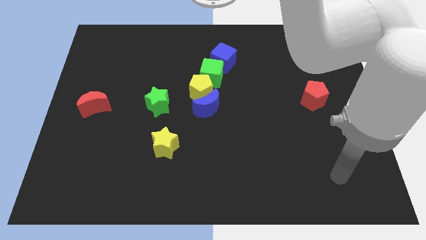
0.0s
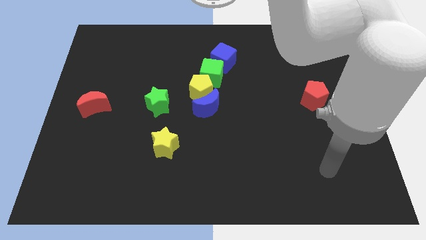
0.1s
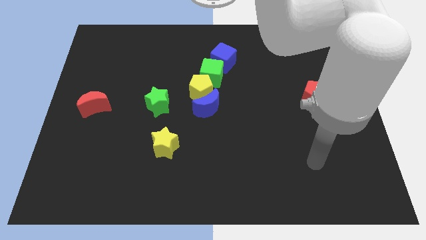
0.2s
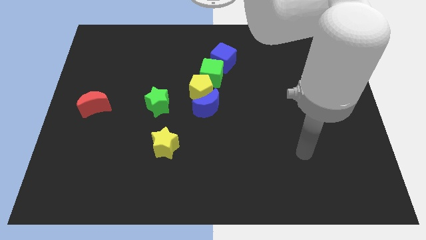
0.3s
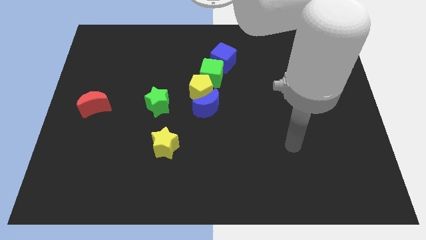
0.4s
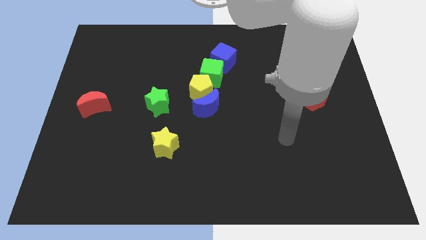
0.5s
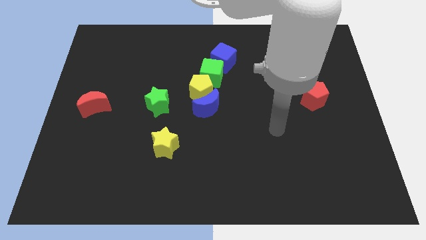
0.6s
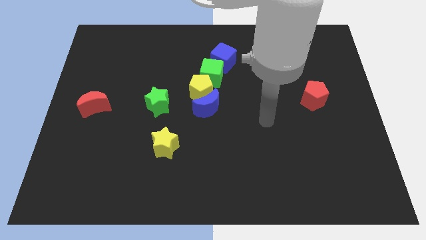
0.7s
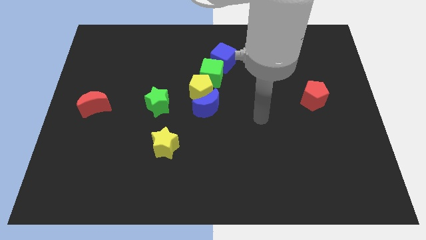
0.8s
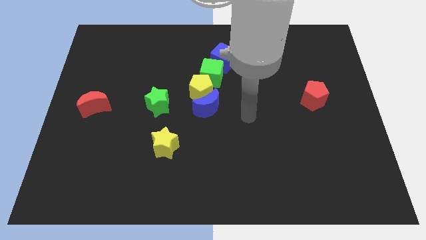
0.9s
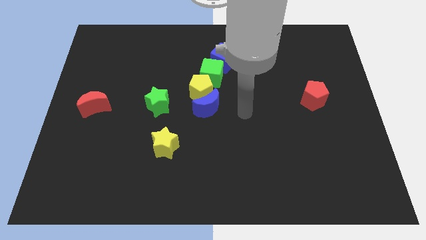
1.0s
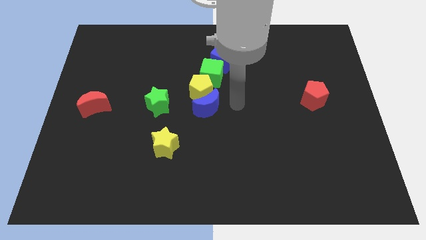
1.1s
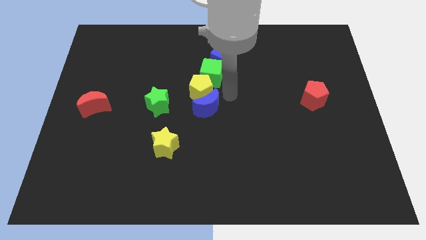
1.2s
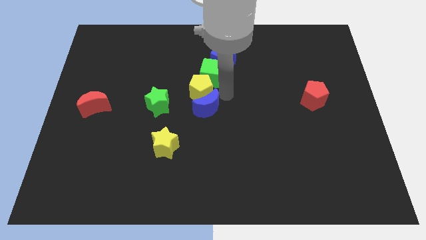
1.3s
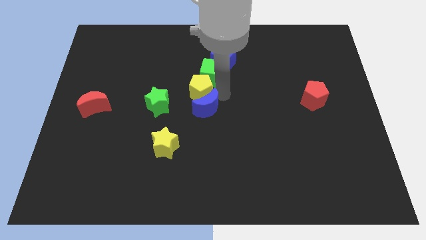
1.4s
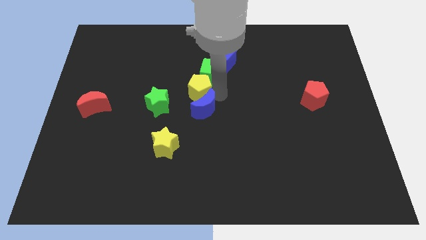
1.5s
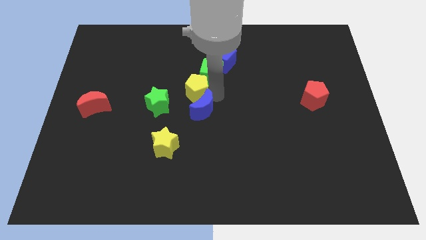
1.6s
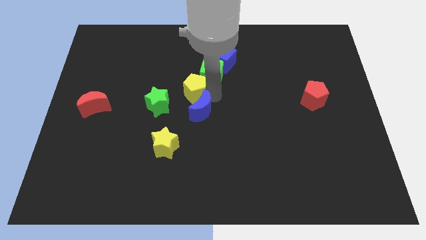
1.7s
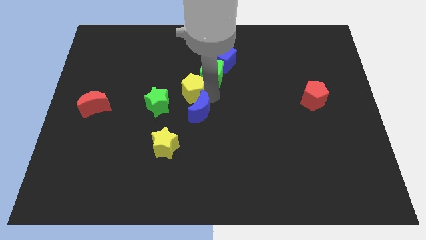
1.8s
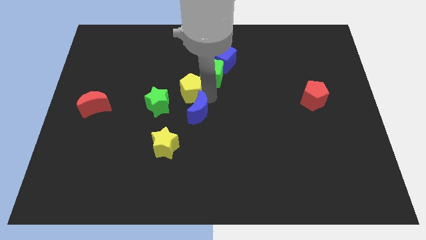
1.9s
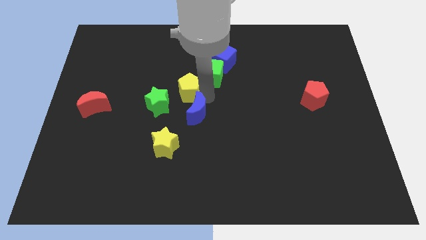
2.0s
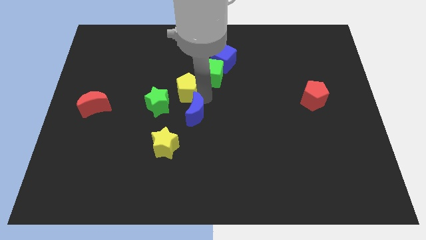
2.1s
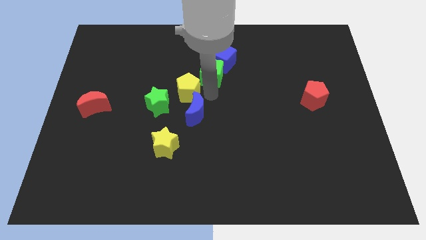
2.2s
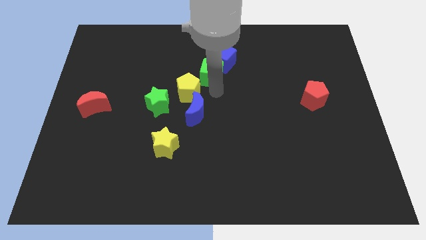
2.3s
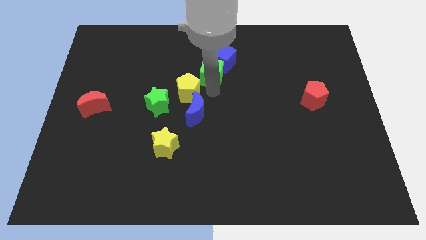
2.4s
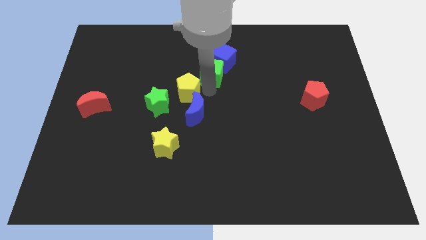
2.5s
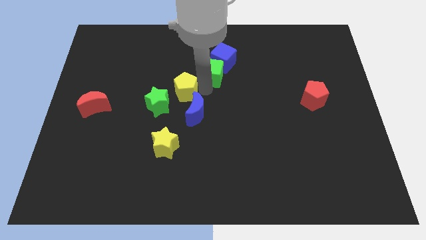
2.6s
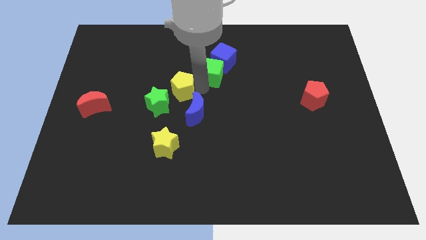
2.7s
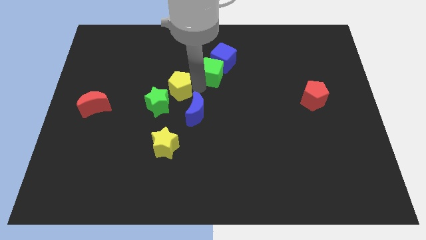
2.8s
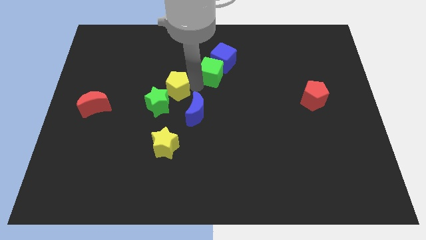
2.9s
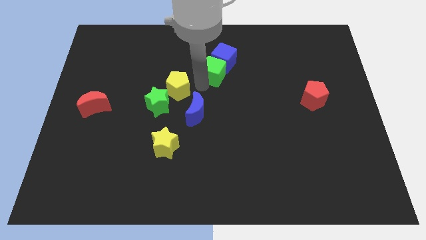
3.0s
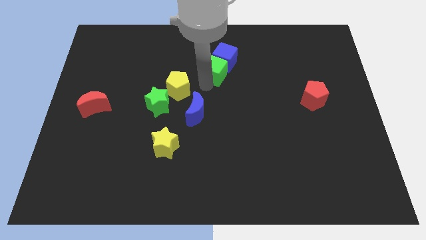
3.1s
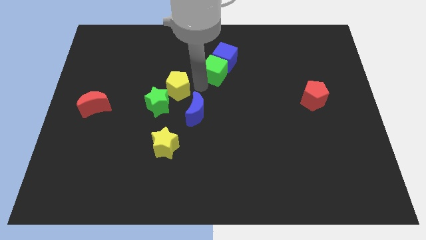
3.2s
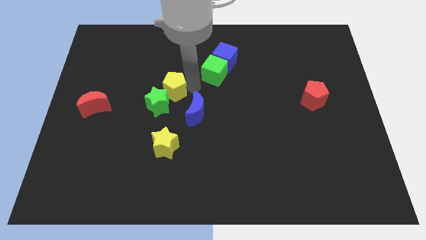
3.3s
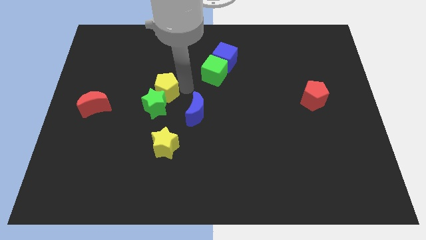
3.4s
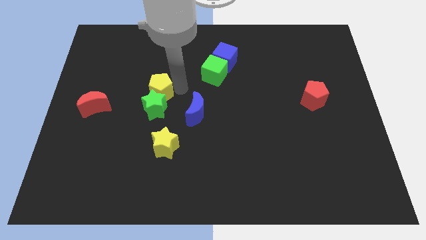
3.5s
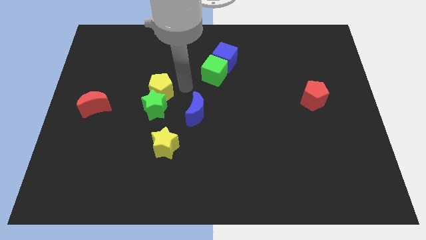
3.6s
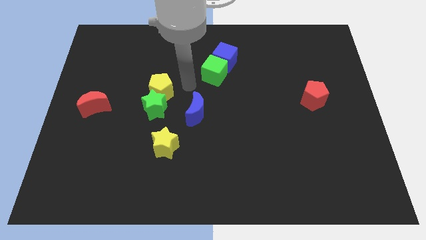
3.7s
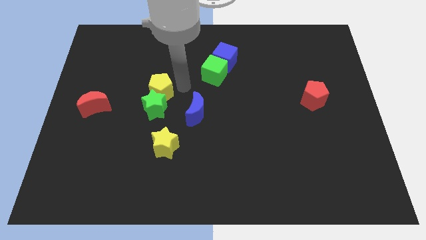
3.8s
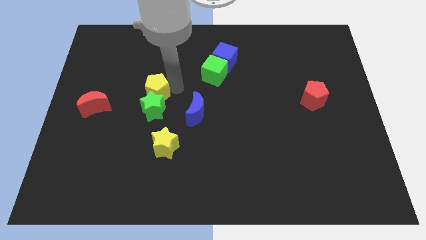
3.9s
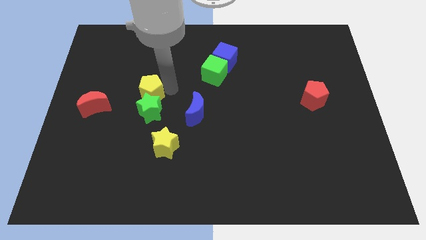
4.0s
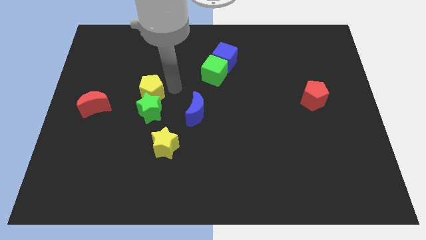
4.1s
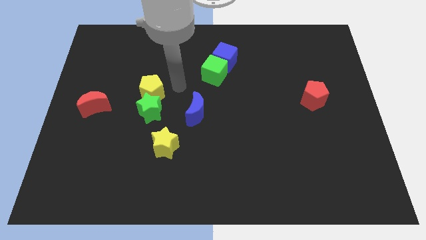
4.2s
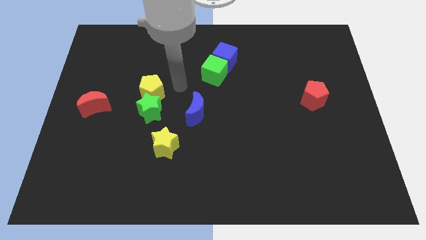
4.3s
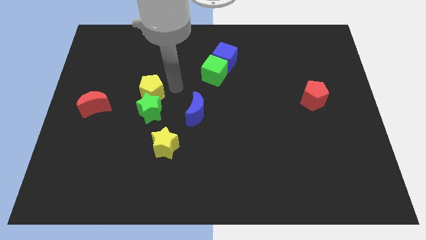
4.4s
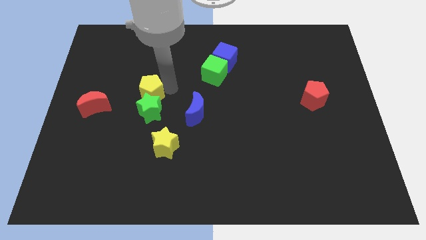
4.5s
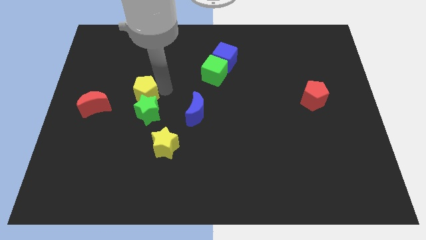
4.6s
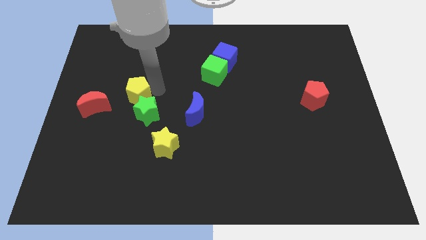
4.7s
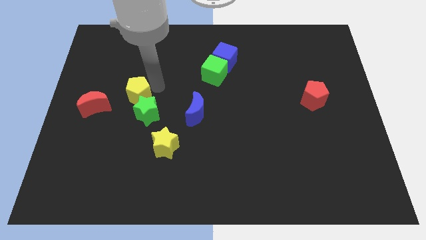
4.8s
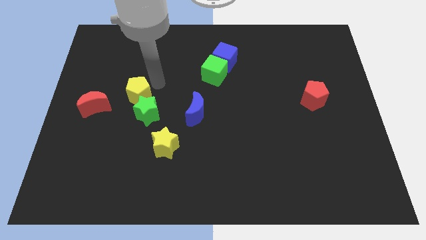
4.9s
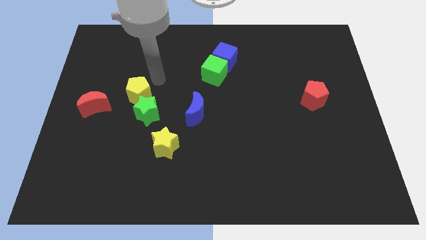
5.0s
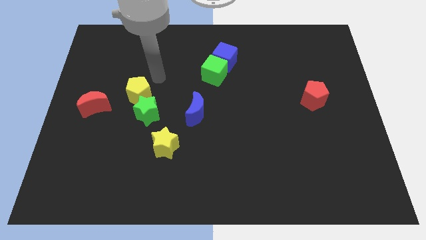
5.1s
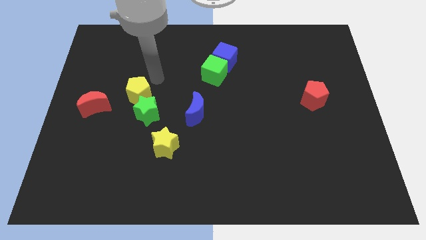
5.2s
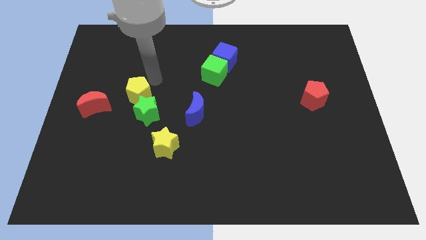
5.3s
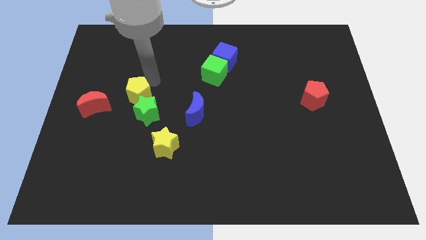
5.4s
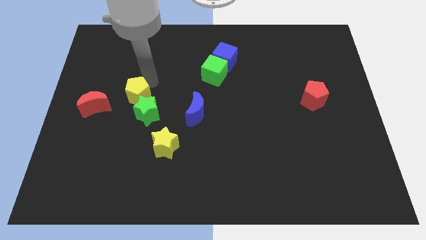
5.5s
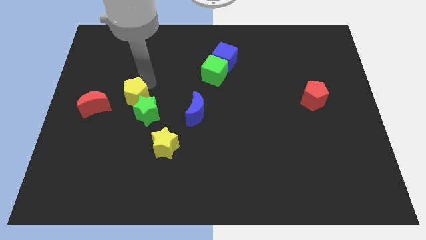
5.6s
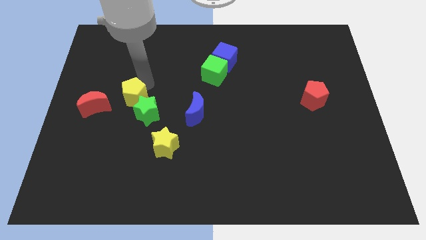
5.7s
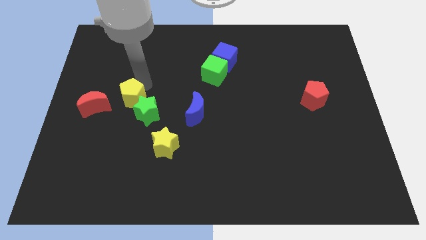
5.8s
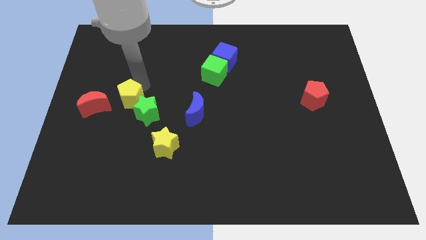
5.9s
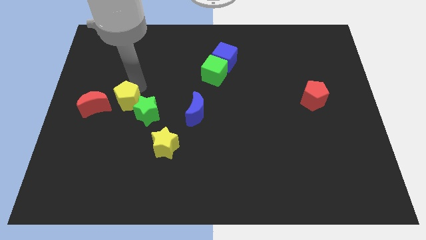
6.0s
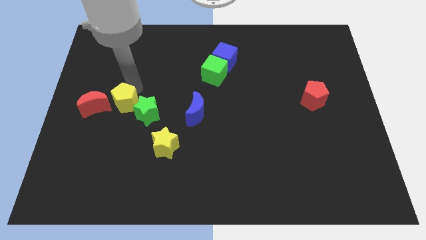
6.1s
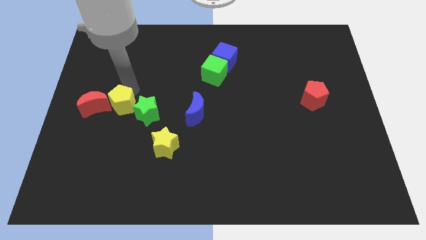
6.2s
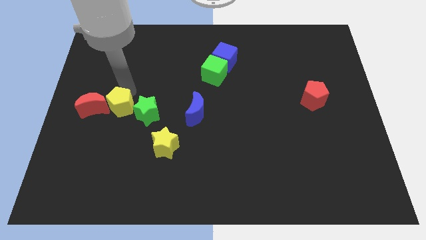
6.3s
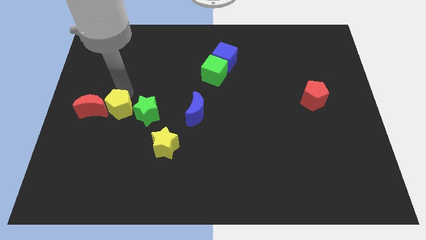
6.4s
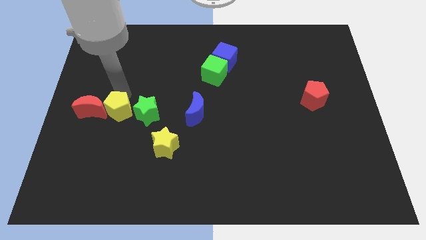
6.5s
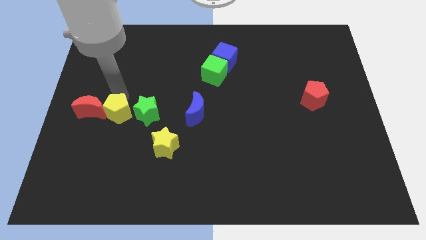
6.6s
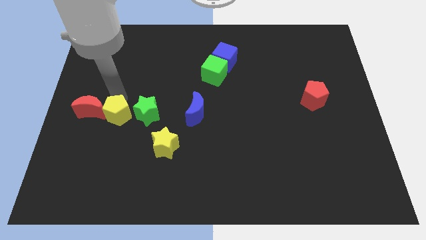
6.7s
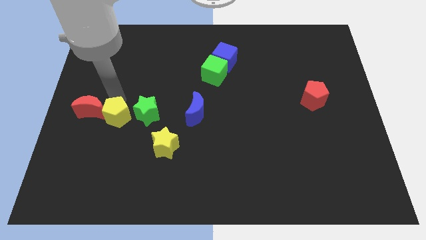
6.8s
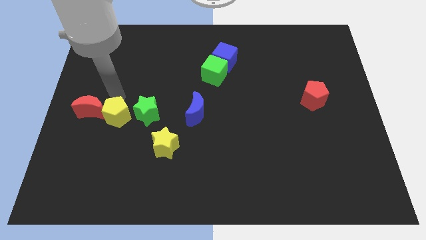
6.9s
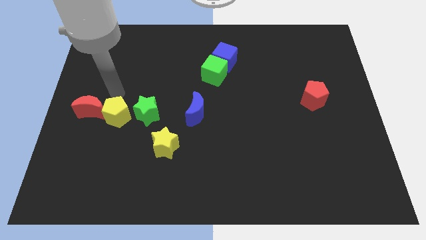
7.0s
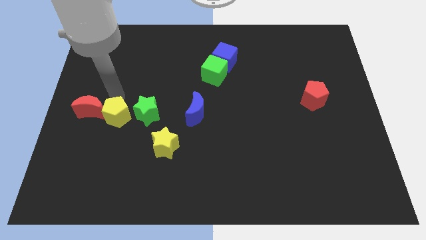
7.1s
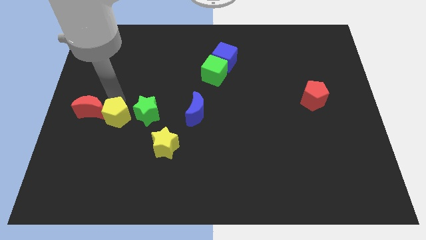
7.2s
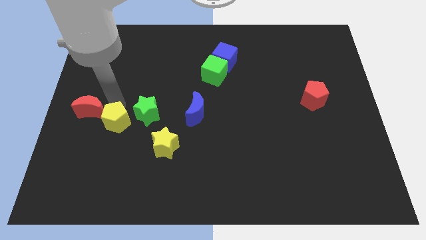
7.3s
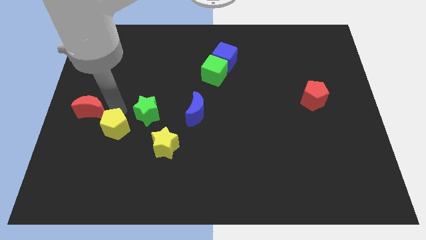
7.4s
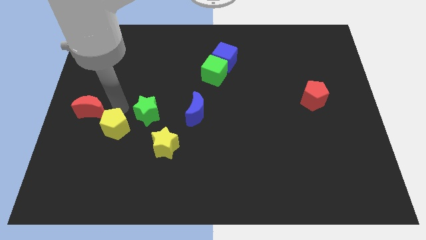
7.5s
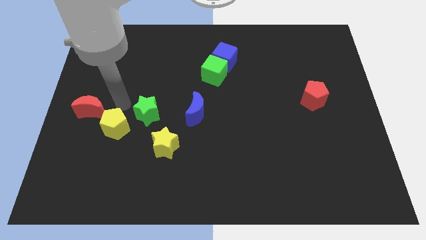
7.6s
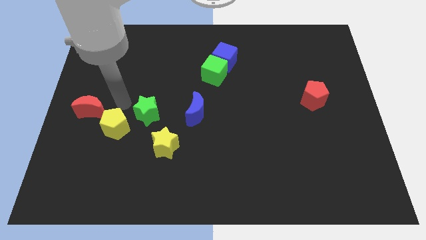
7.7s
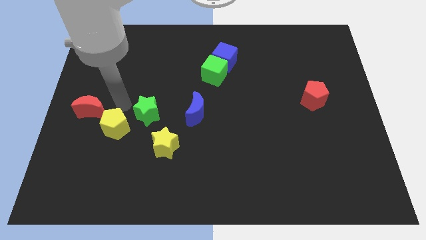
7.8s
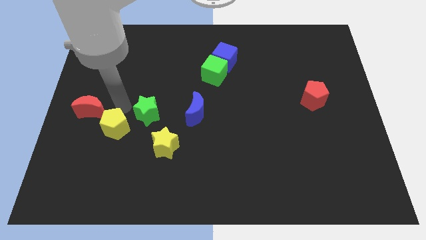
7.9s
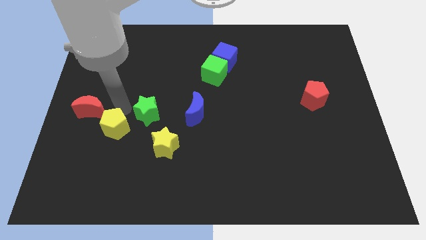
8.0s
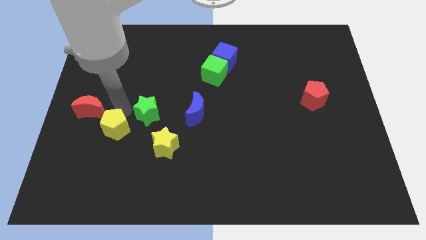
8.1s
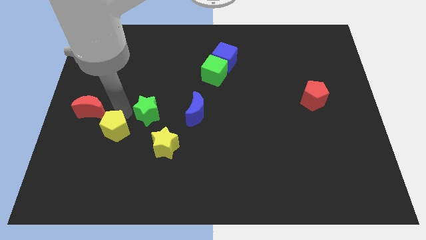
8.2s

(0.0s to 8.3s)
move the yellow pentagon downwards and then to the left
